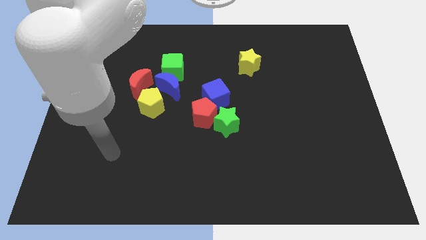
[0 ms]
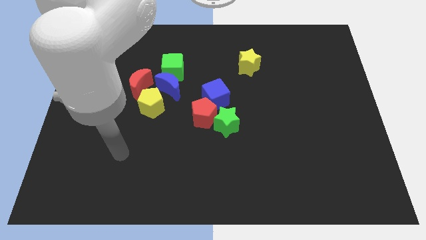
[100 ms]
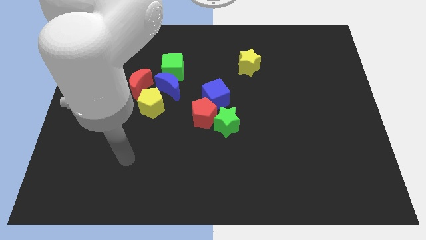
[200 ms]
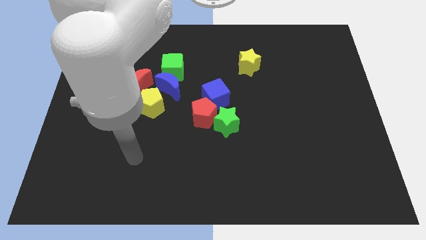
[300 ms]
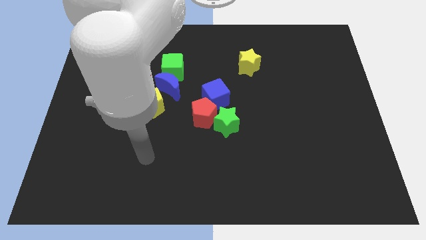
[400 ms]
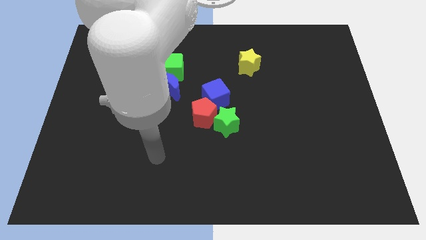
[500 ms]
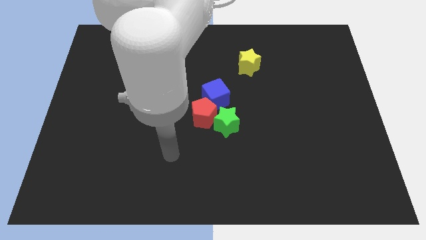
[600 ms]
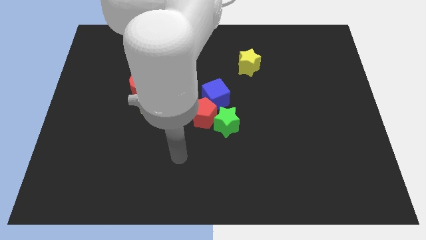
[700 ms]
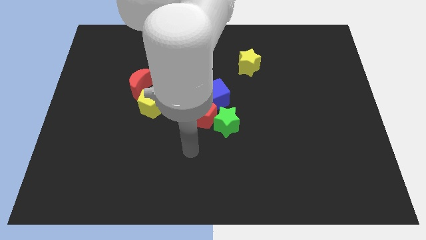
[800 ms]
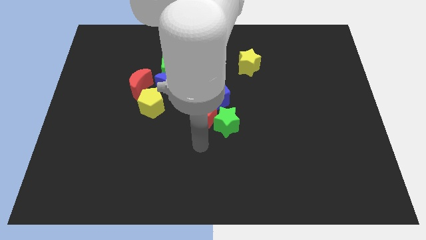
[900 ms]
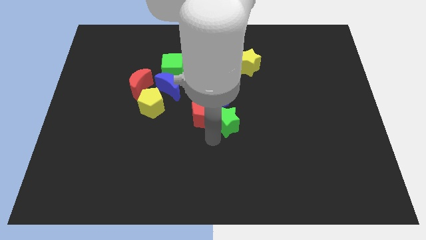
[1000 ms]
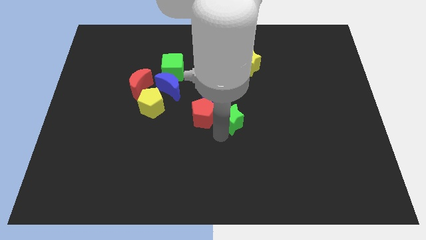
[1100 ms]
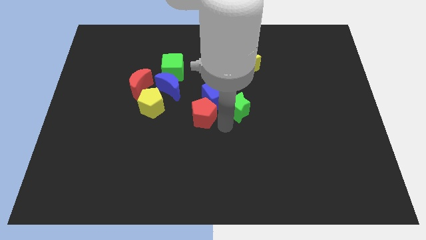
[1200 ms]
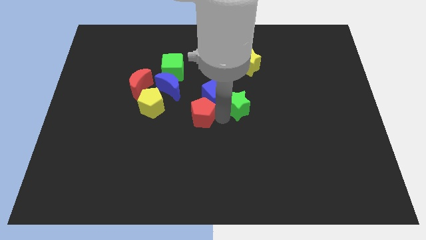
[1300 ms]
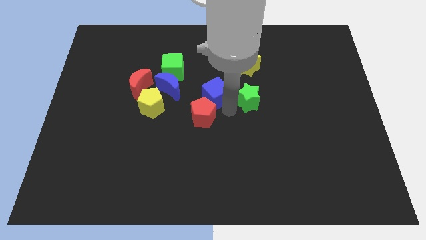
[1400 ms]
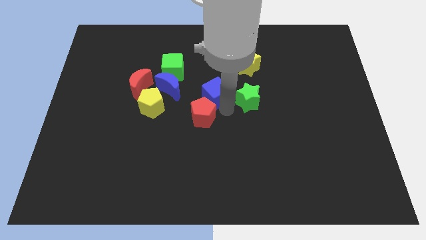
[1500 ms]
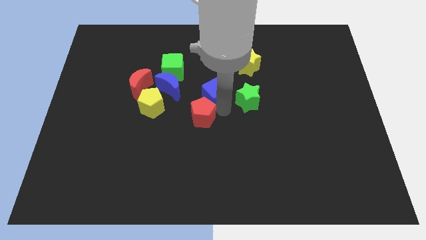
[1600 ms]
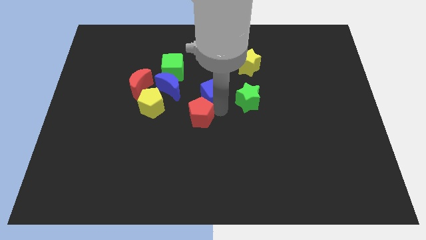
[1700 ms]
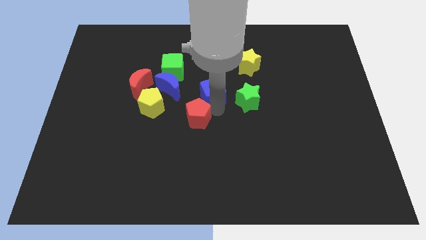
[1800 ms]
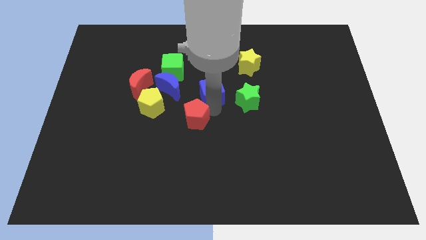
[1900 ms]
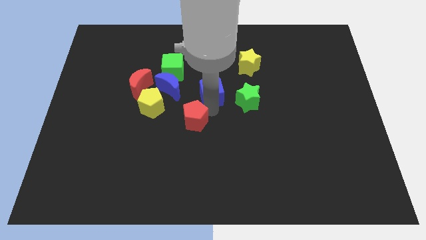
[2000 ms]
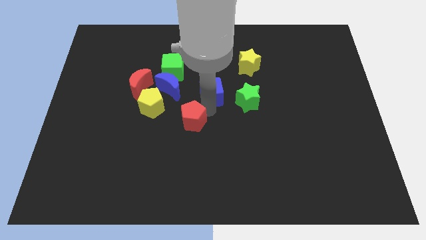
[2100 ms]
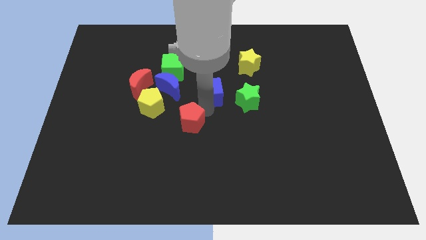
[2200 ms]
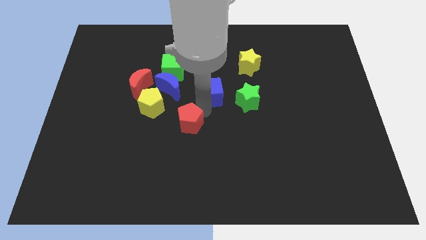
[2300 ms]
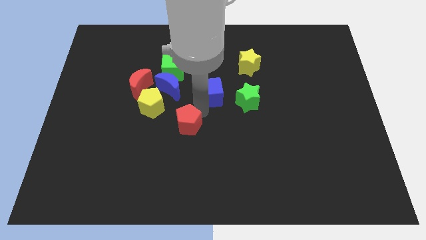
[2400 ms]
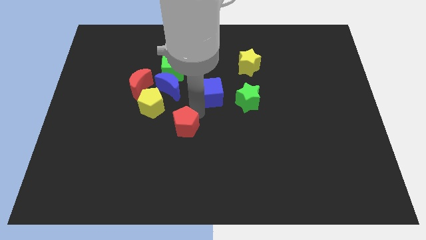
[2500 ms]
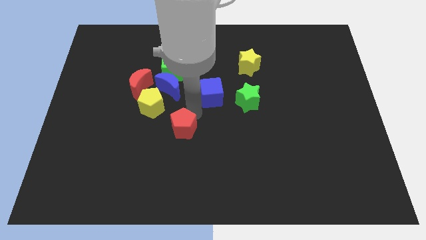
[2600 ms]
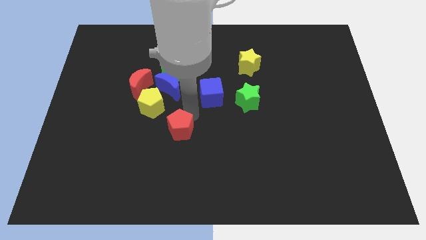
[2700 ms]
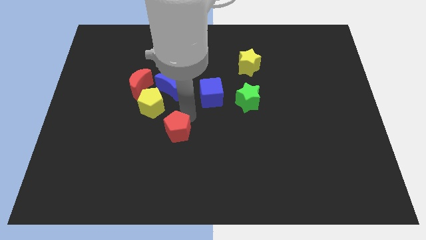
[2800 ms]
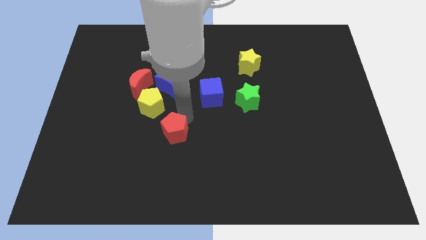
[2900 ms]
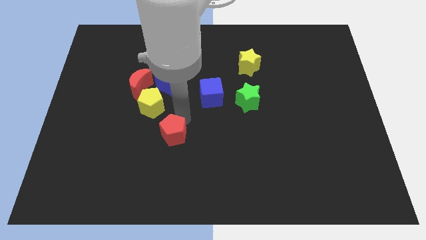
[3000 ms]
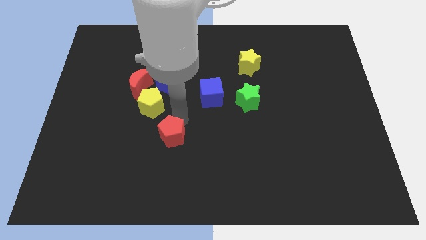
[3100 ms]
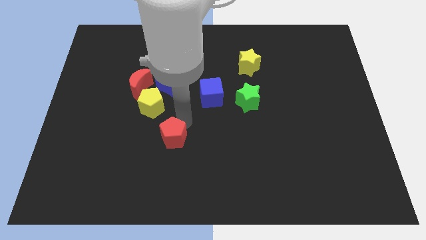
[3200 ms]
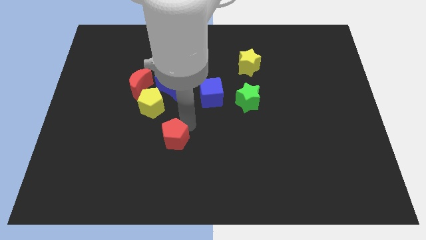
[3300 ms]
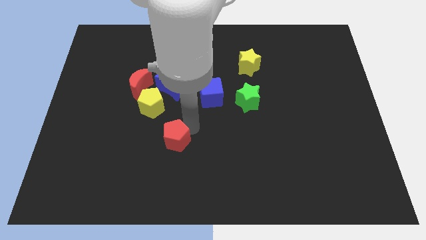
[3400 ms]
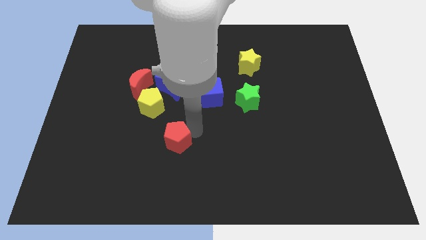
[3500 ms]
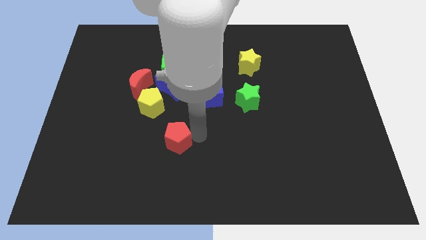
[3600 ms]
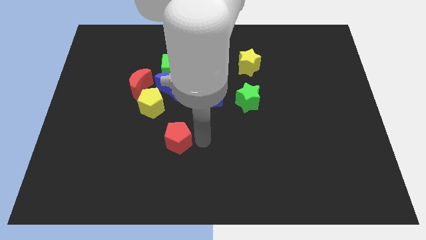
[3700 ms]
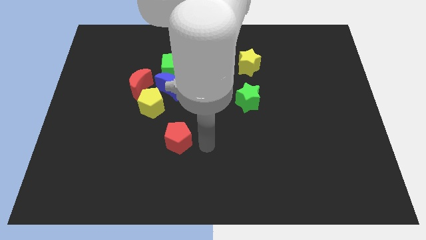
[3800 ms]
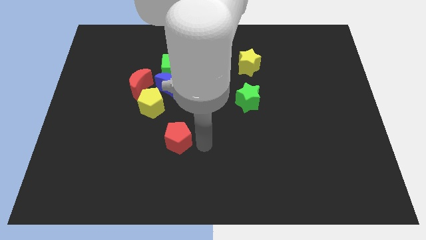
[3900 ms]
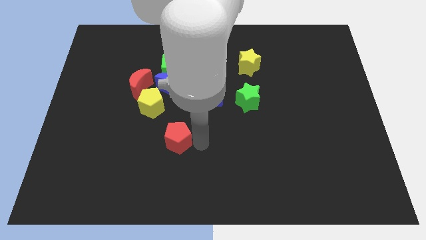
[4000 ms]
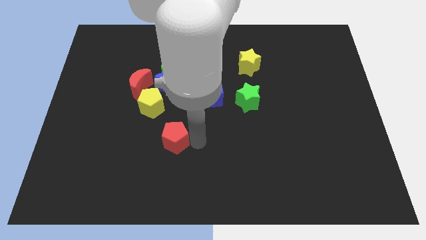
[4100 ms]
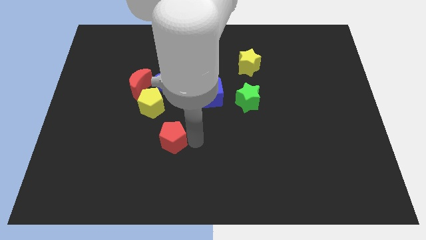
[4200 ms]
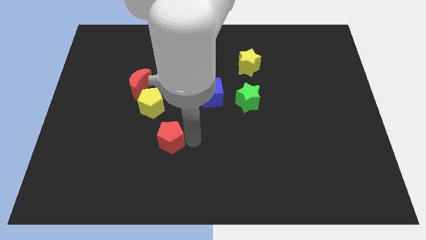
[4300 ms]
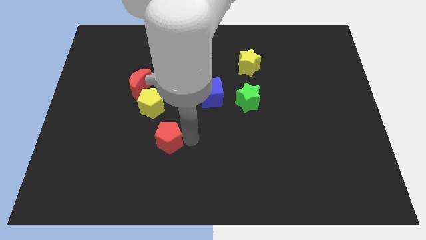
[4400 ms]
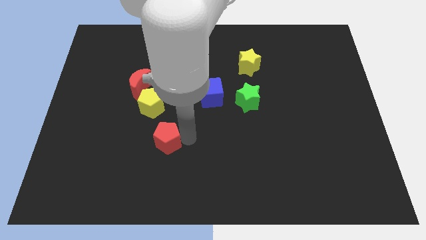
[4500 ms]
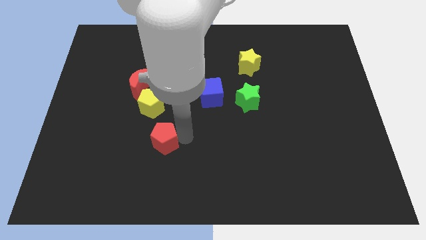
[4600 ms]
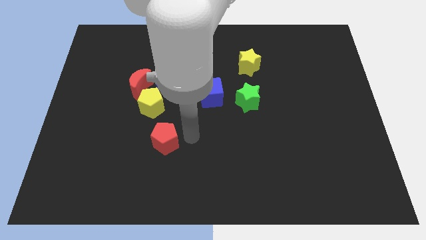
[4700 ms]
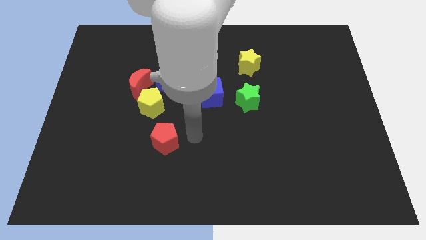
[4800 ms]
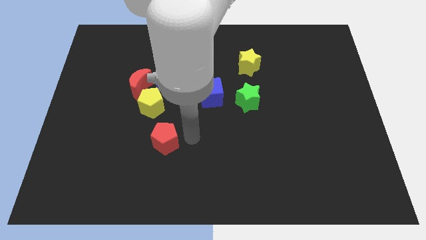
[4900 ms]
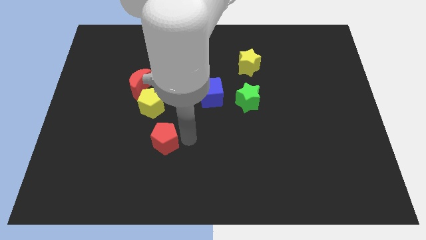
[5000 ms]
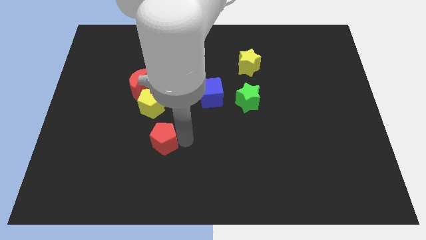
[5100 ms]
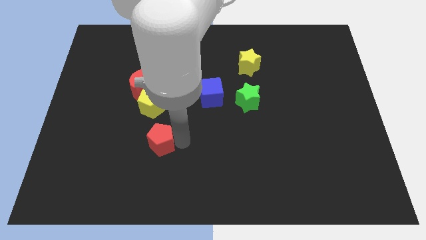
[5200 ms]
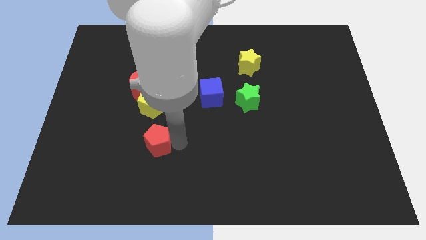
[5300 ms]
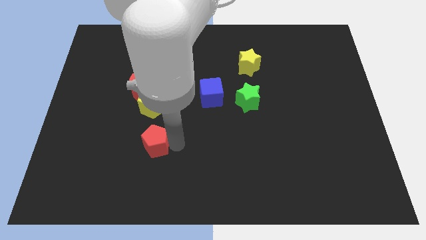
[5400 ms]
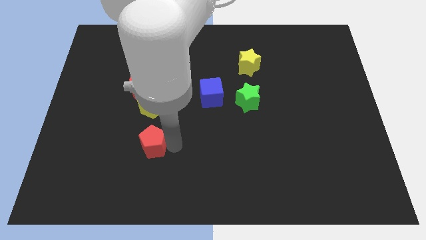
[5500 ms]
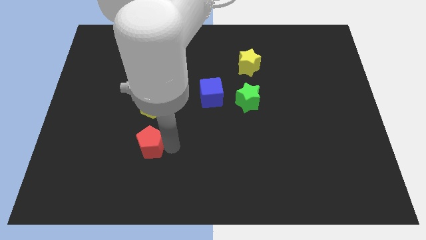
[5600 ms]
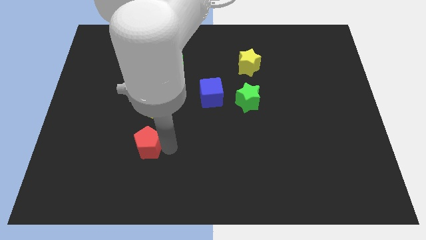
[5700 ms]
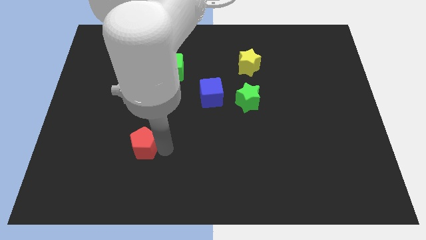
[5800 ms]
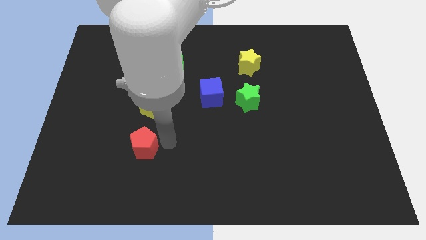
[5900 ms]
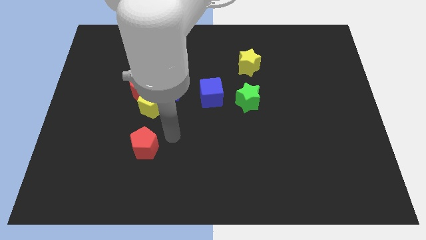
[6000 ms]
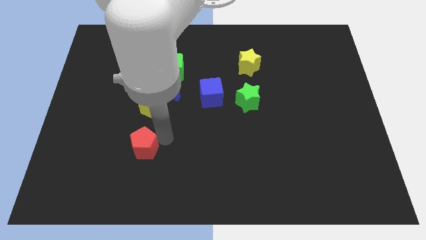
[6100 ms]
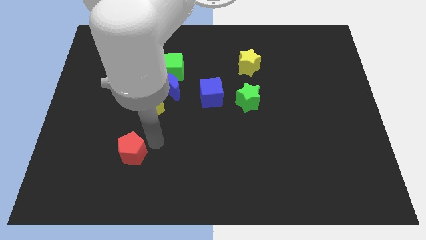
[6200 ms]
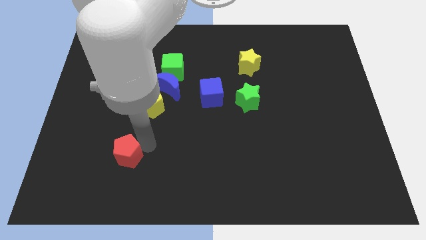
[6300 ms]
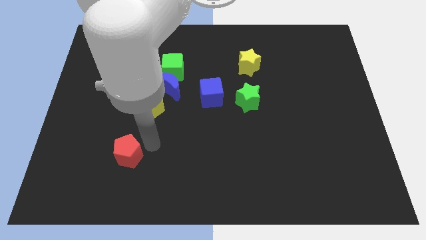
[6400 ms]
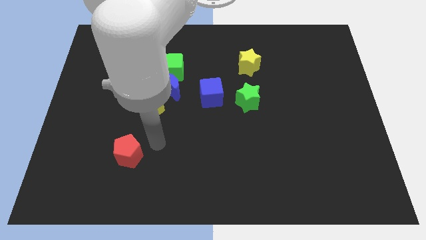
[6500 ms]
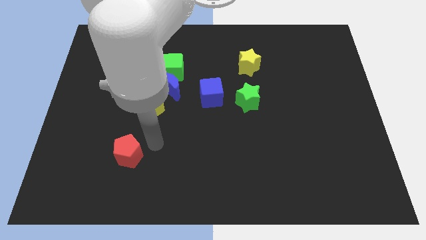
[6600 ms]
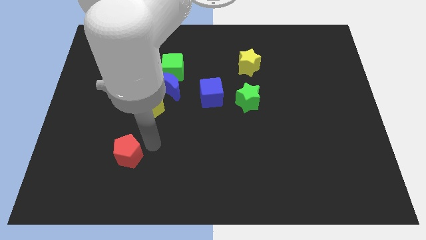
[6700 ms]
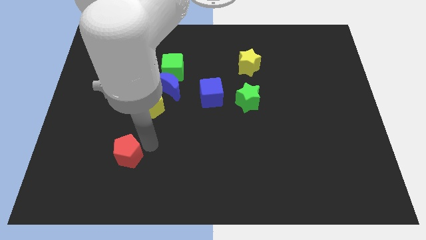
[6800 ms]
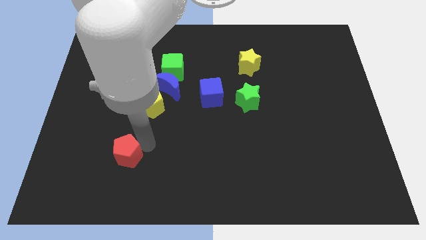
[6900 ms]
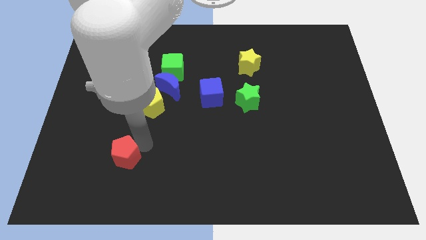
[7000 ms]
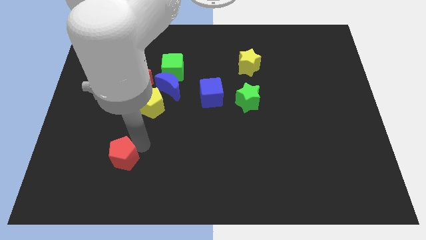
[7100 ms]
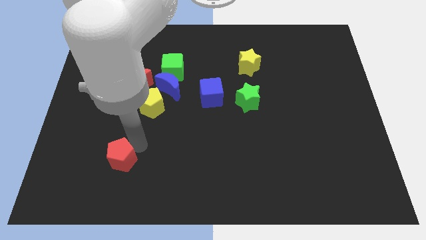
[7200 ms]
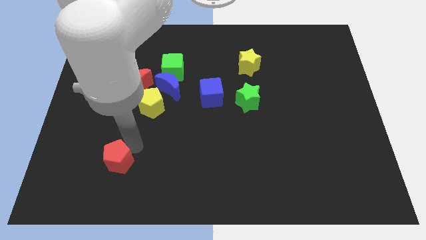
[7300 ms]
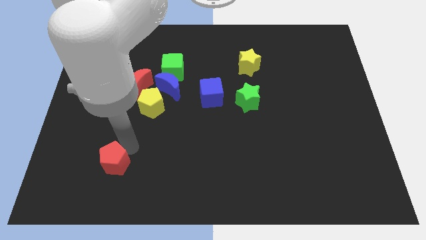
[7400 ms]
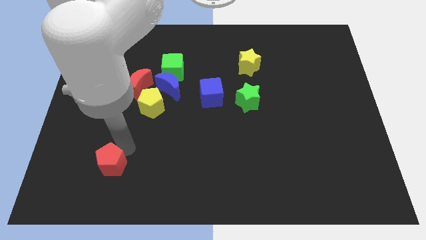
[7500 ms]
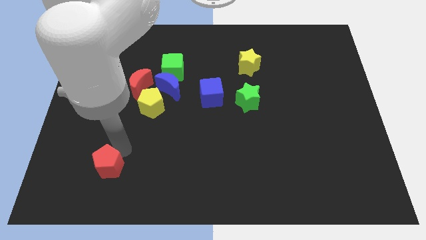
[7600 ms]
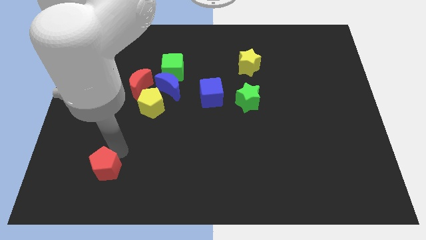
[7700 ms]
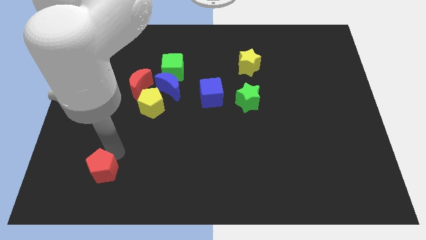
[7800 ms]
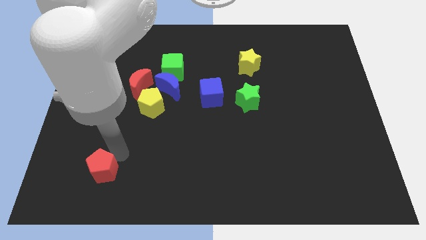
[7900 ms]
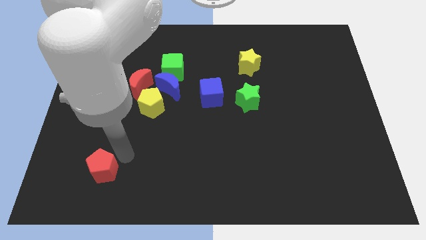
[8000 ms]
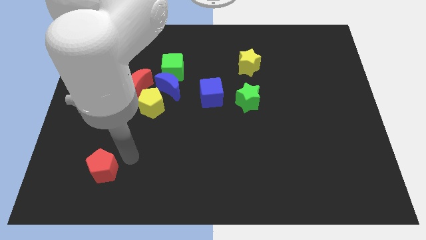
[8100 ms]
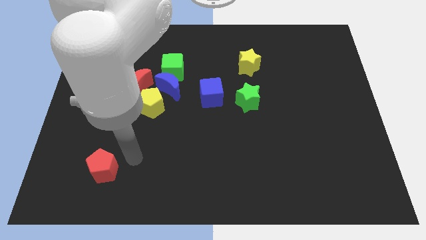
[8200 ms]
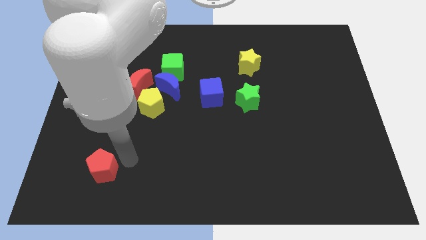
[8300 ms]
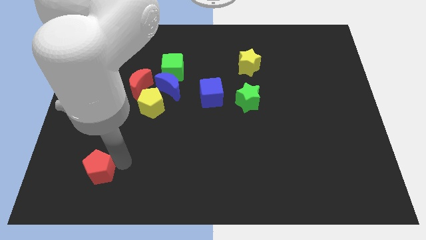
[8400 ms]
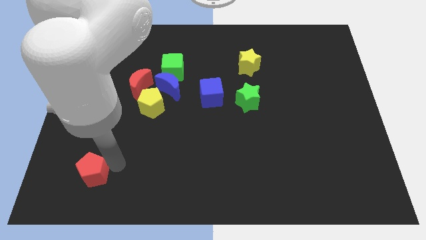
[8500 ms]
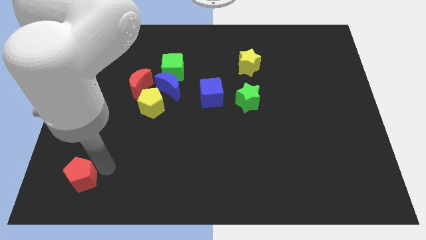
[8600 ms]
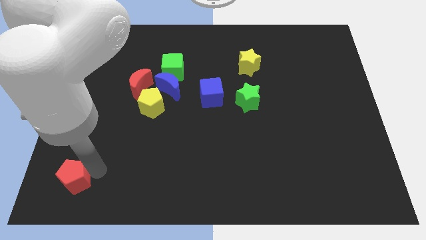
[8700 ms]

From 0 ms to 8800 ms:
move the red pentagon to the bottom left corner
